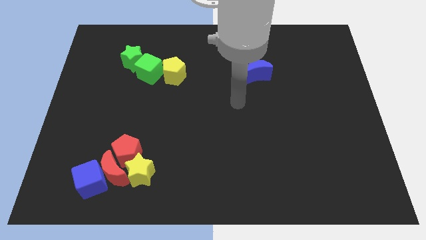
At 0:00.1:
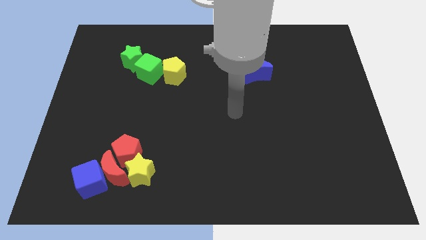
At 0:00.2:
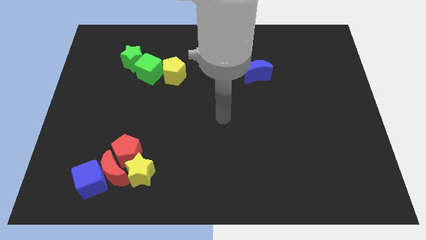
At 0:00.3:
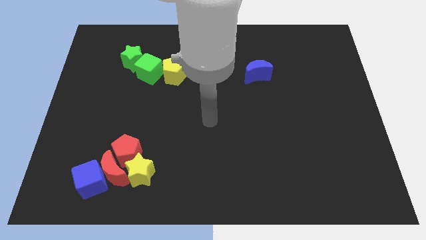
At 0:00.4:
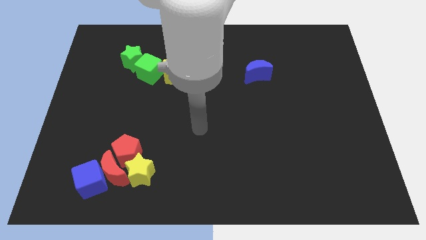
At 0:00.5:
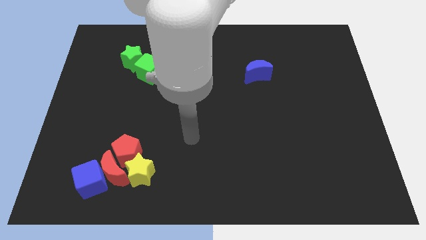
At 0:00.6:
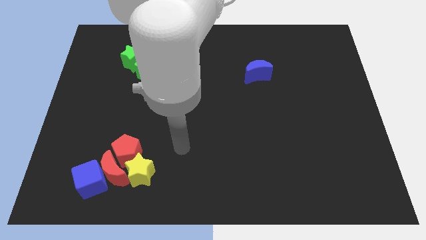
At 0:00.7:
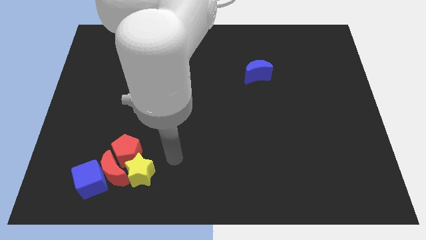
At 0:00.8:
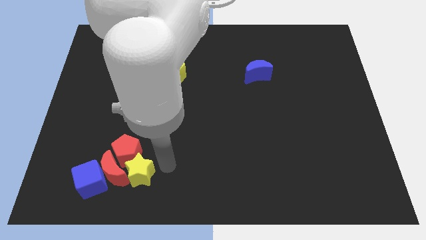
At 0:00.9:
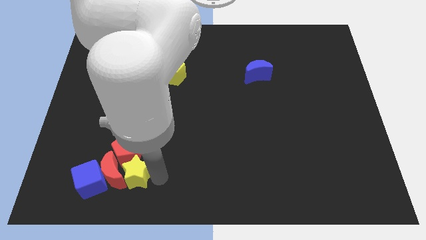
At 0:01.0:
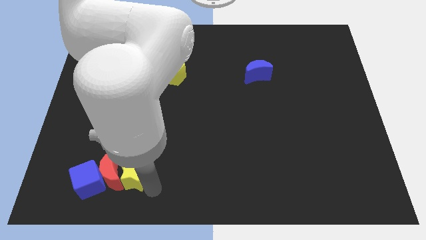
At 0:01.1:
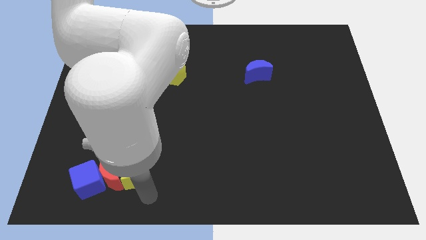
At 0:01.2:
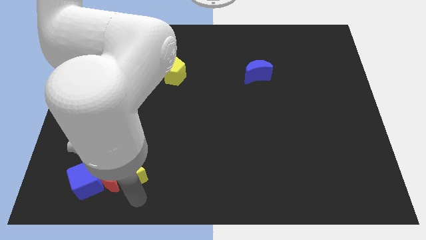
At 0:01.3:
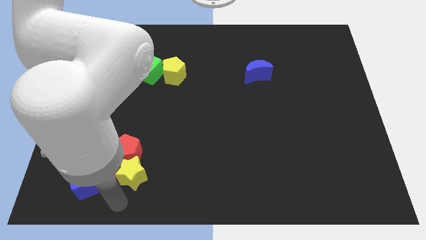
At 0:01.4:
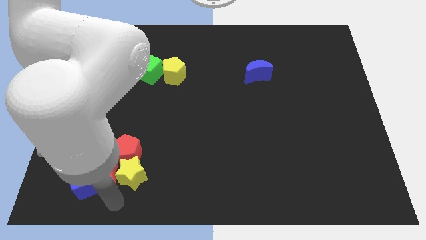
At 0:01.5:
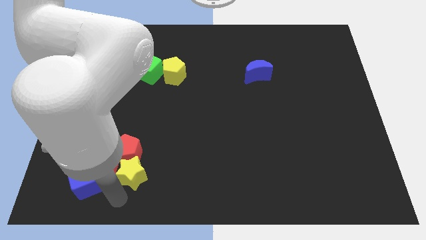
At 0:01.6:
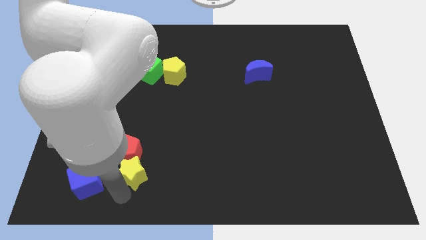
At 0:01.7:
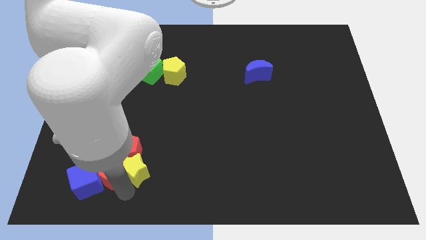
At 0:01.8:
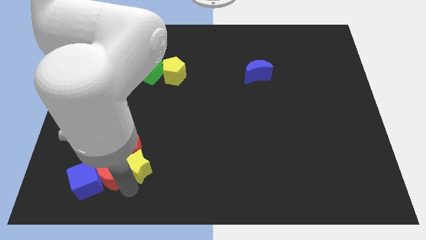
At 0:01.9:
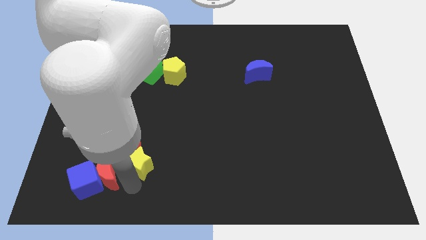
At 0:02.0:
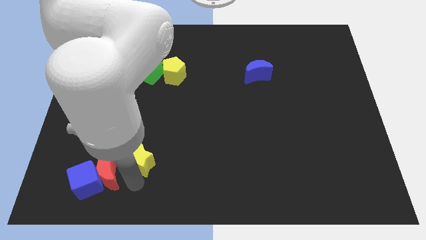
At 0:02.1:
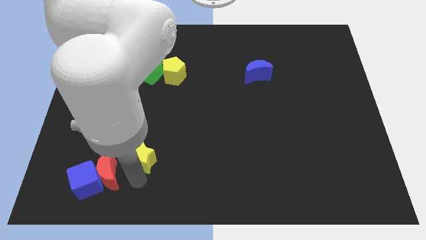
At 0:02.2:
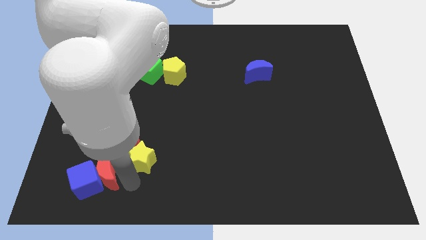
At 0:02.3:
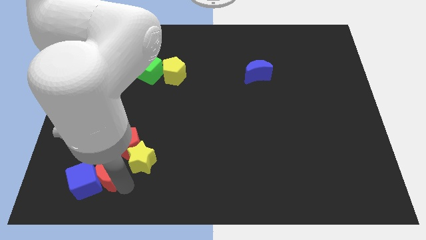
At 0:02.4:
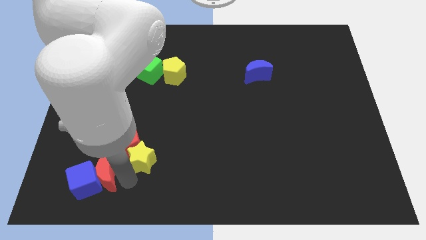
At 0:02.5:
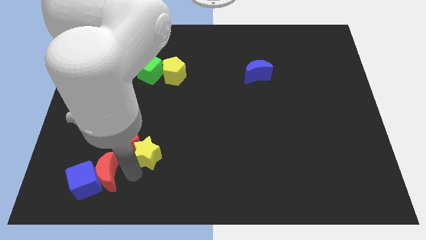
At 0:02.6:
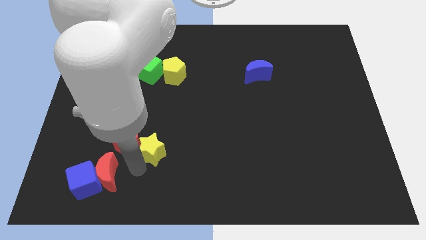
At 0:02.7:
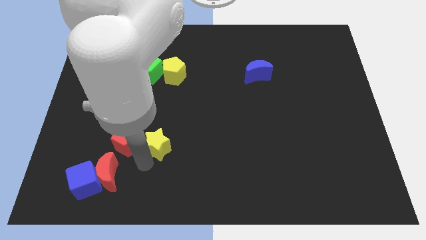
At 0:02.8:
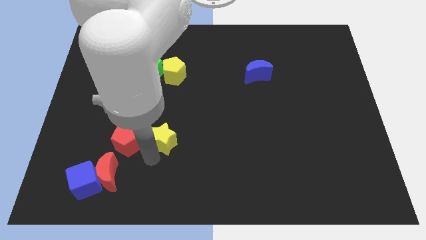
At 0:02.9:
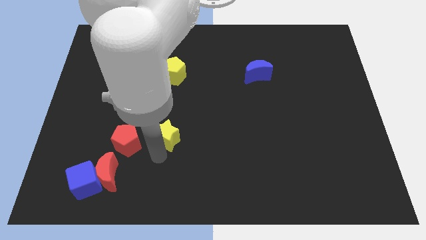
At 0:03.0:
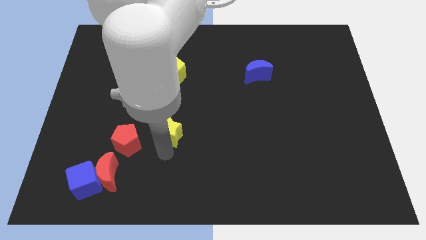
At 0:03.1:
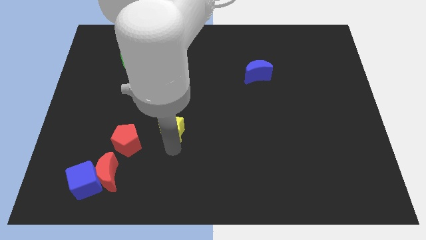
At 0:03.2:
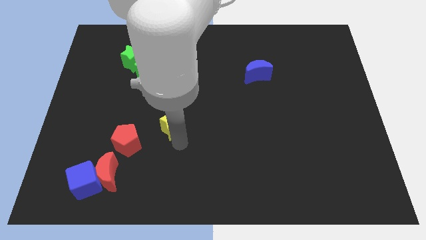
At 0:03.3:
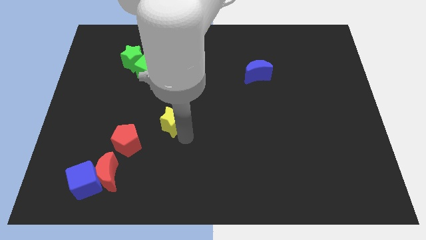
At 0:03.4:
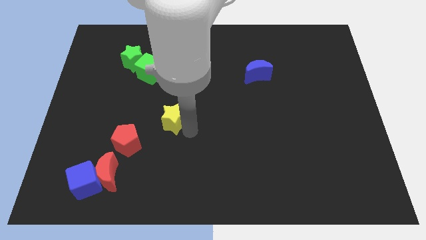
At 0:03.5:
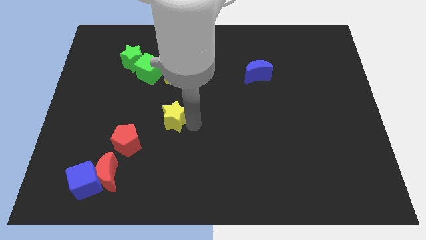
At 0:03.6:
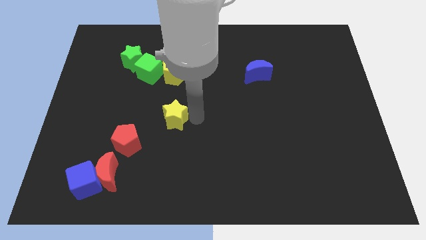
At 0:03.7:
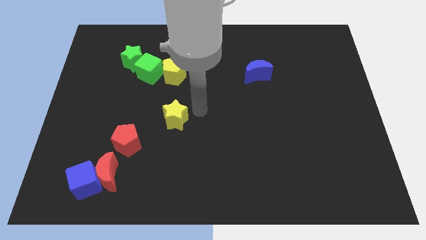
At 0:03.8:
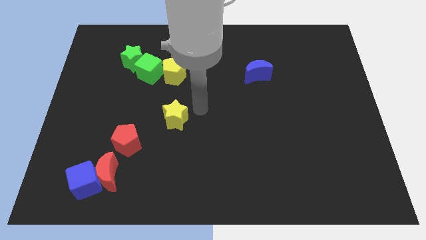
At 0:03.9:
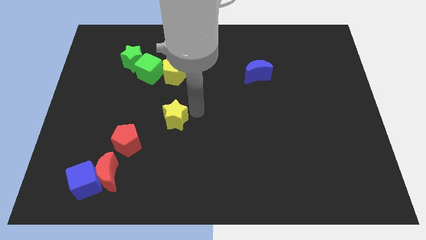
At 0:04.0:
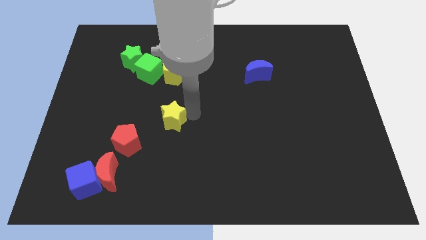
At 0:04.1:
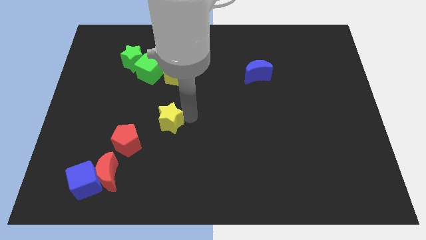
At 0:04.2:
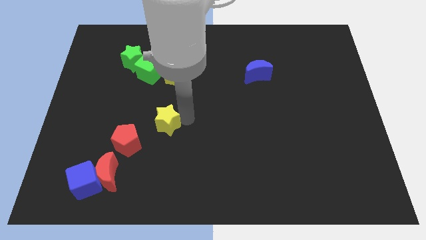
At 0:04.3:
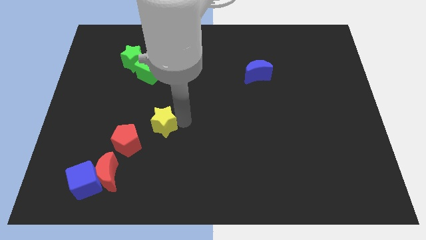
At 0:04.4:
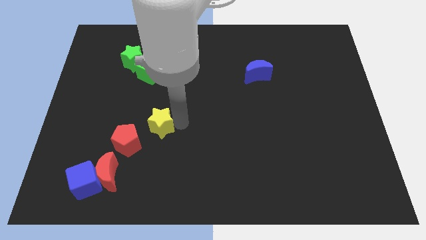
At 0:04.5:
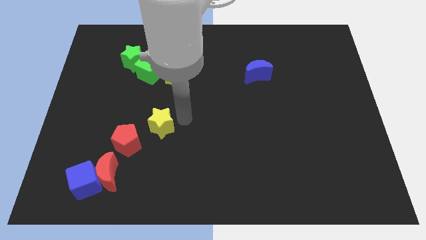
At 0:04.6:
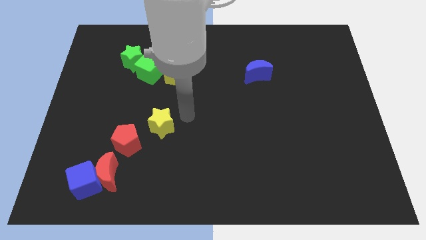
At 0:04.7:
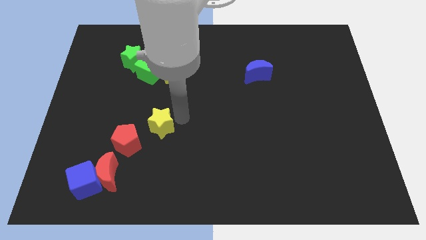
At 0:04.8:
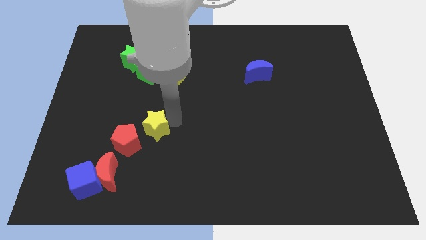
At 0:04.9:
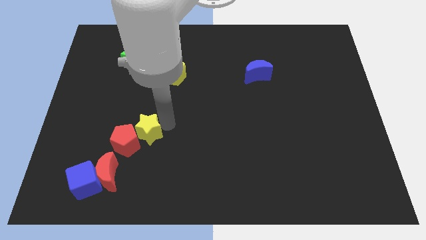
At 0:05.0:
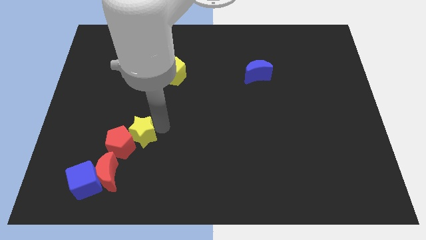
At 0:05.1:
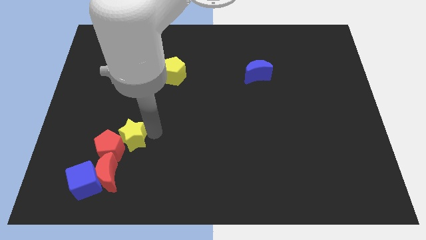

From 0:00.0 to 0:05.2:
push the yellow star upwards and then to the left somewhat

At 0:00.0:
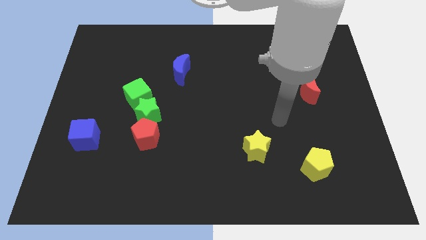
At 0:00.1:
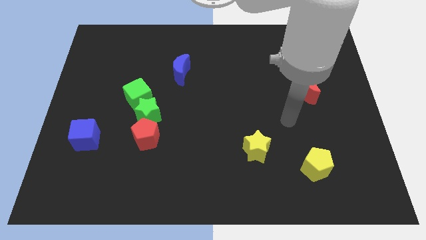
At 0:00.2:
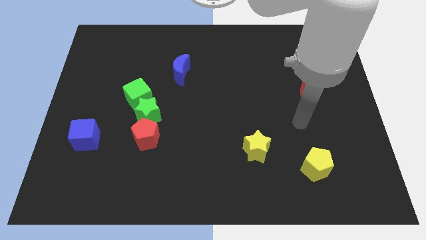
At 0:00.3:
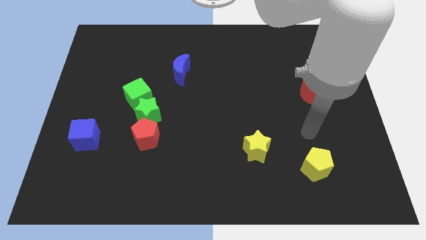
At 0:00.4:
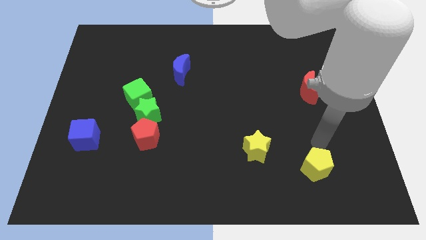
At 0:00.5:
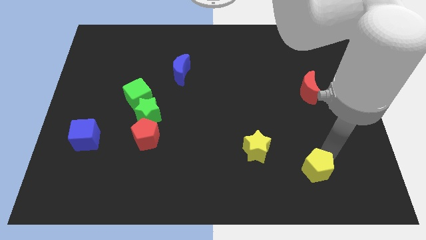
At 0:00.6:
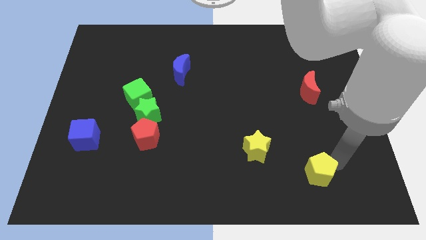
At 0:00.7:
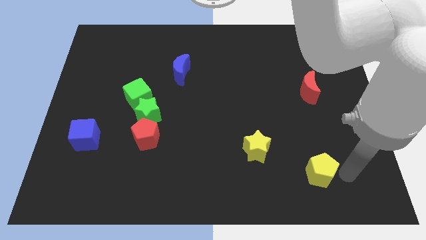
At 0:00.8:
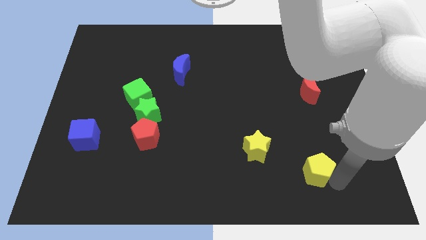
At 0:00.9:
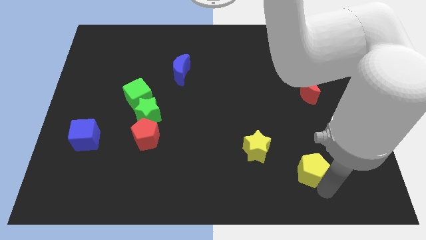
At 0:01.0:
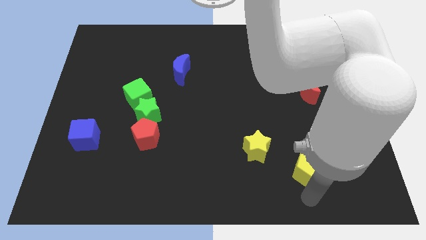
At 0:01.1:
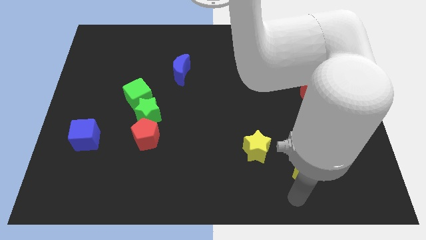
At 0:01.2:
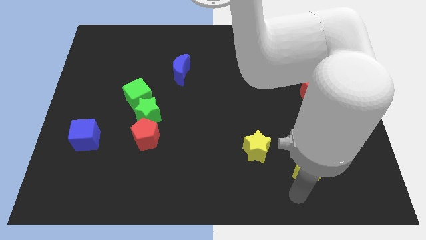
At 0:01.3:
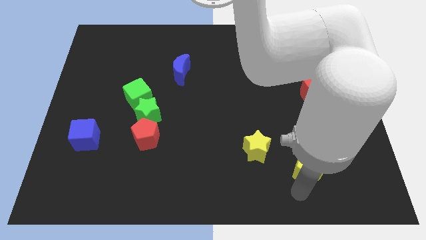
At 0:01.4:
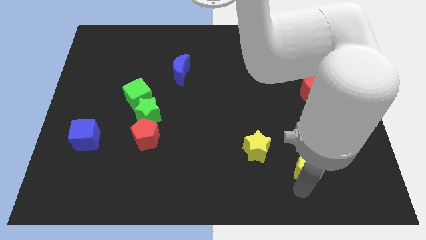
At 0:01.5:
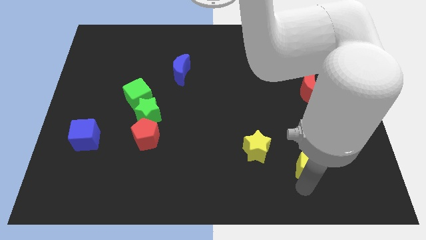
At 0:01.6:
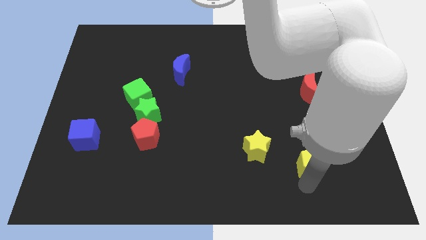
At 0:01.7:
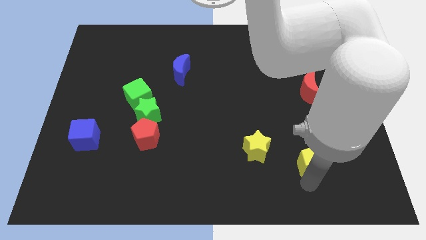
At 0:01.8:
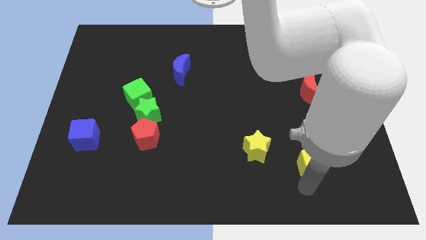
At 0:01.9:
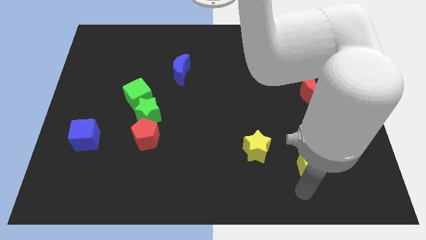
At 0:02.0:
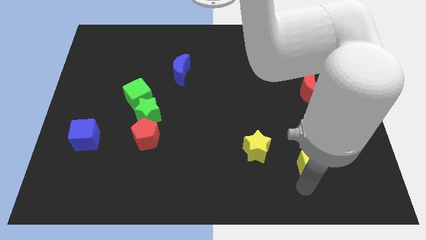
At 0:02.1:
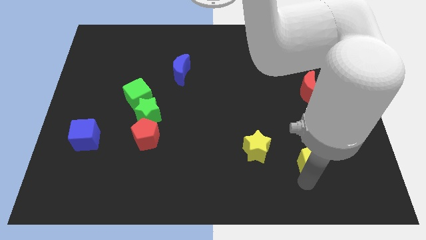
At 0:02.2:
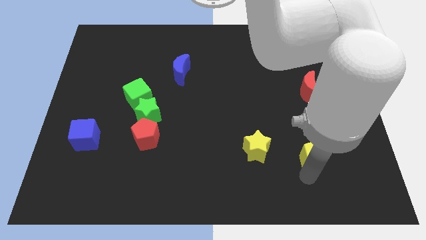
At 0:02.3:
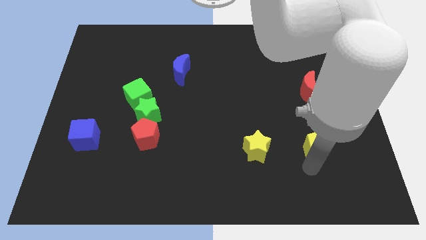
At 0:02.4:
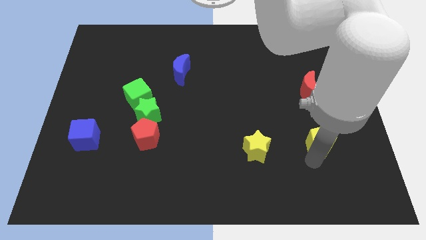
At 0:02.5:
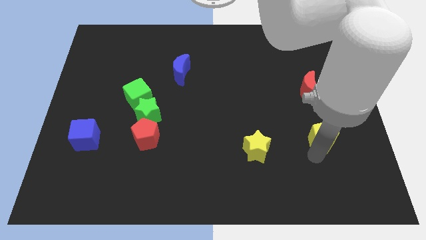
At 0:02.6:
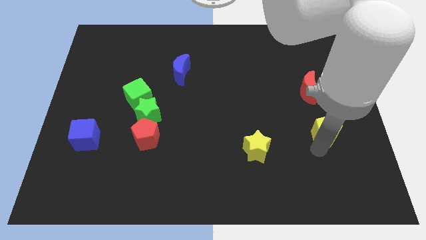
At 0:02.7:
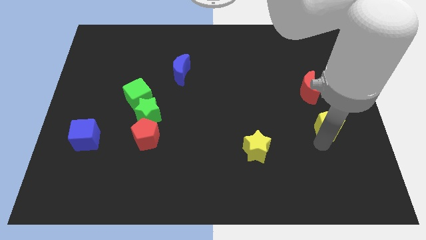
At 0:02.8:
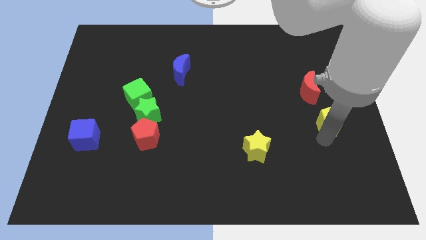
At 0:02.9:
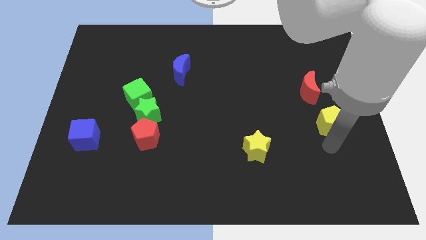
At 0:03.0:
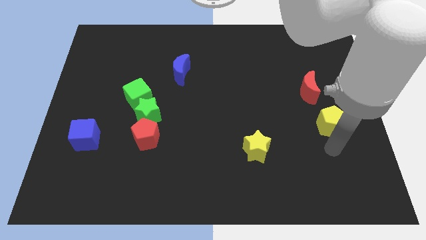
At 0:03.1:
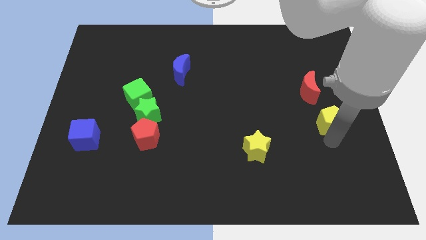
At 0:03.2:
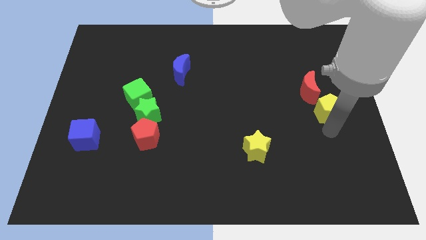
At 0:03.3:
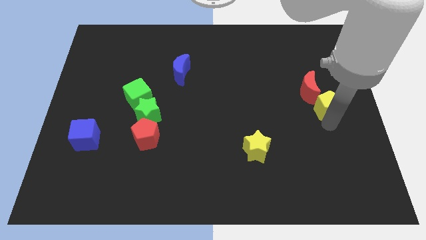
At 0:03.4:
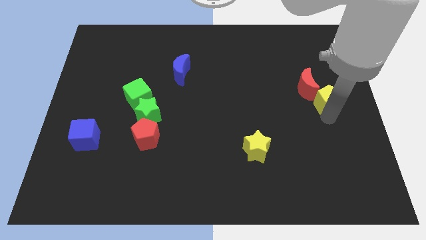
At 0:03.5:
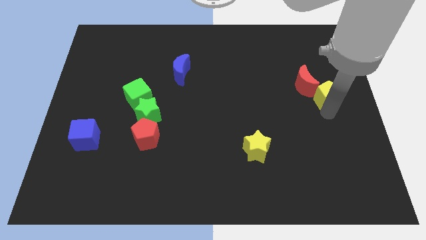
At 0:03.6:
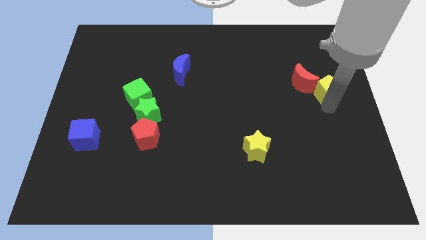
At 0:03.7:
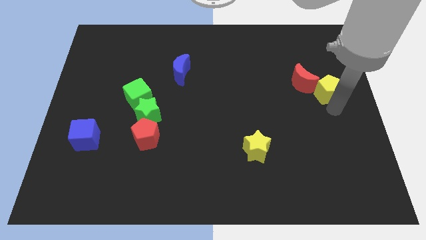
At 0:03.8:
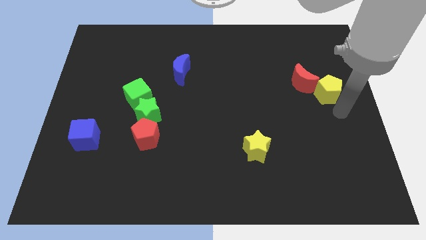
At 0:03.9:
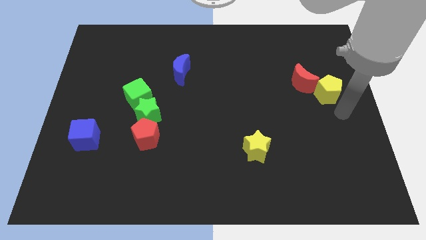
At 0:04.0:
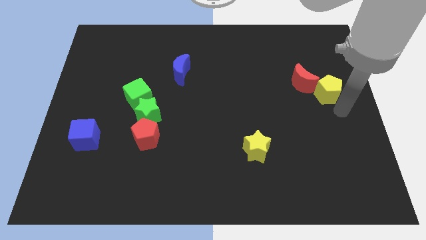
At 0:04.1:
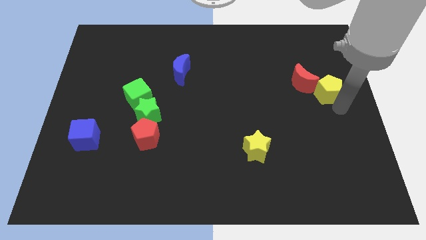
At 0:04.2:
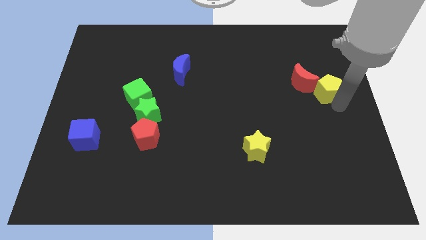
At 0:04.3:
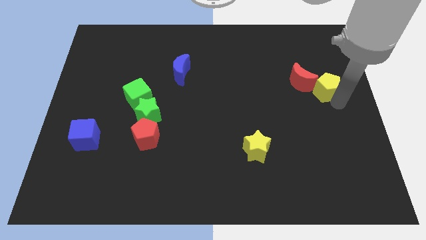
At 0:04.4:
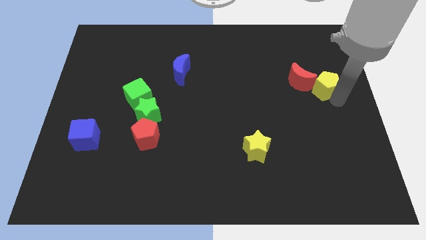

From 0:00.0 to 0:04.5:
slide the yellow pentagon up
